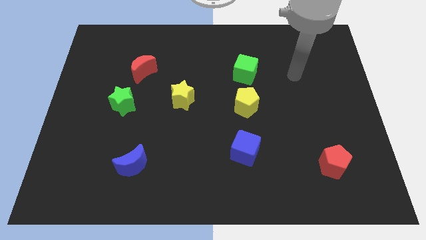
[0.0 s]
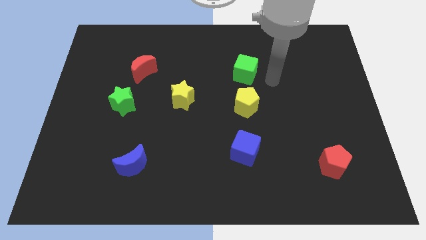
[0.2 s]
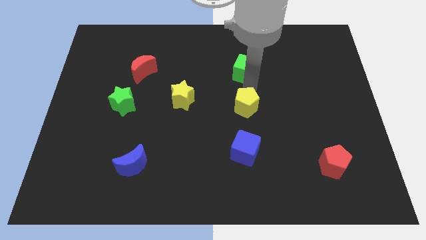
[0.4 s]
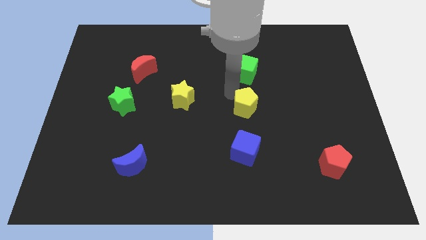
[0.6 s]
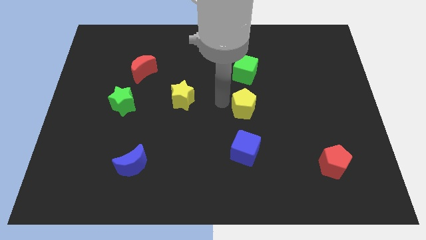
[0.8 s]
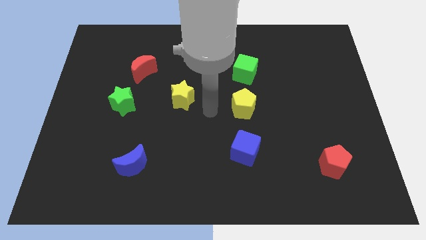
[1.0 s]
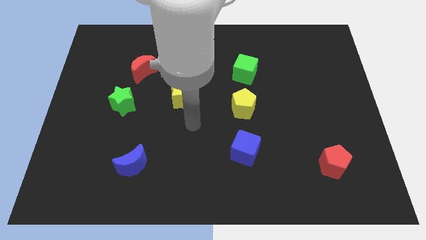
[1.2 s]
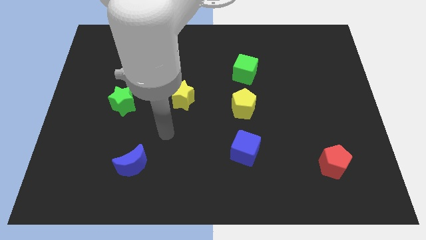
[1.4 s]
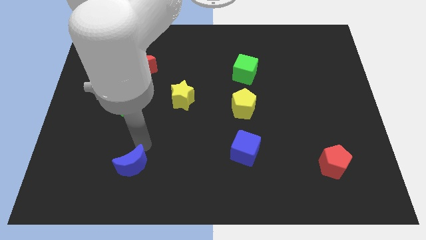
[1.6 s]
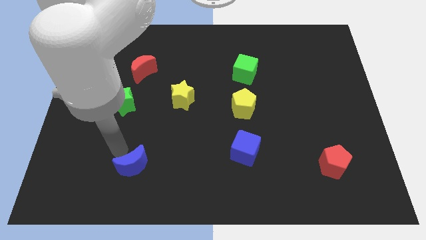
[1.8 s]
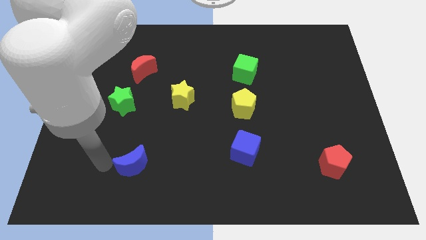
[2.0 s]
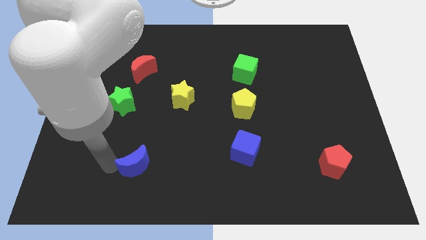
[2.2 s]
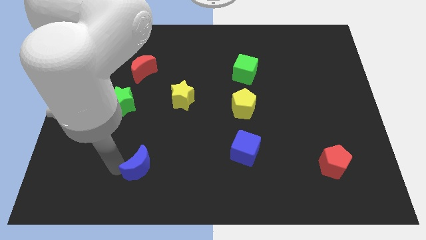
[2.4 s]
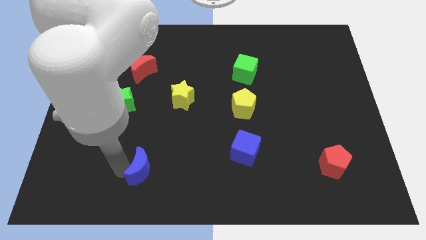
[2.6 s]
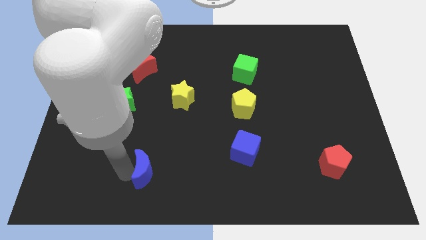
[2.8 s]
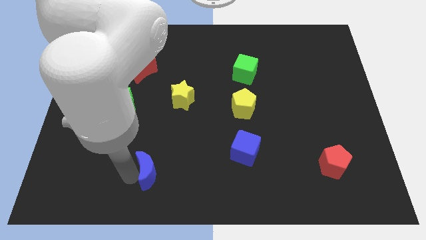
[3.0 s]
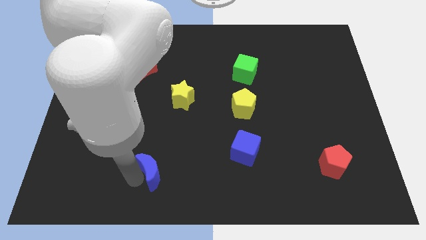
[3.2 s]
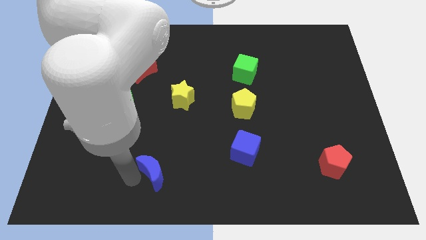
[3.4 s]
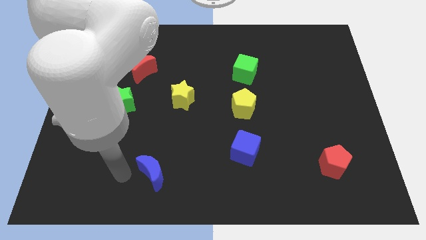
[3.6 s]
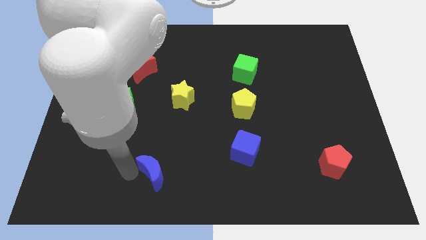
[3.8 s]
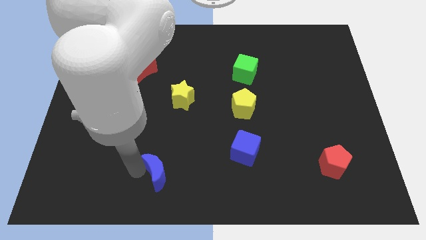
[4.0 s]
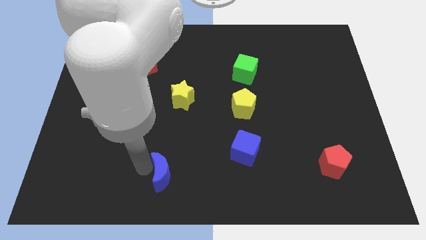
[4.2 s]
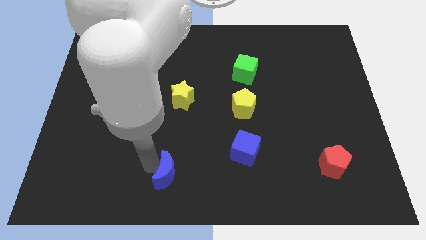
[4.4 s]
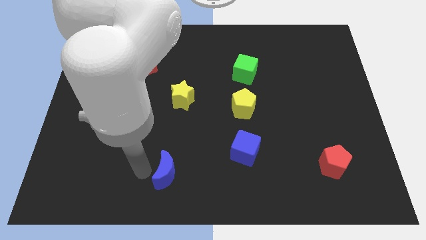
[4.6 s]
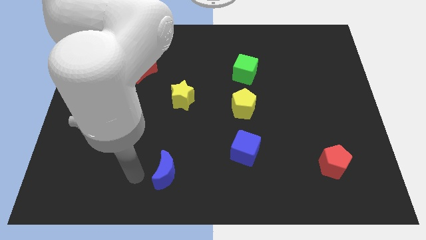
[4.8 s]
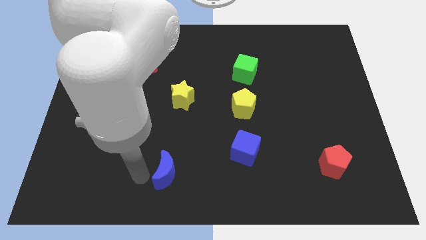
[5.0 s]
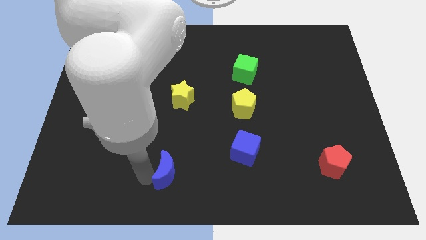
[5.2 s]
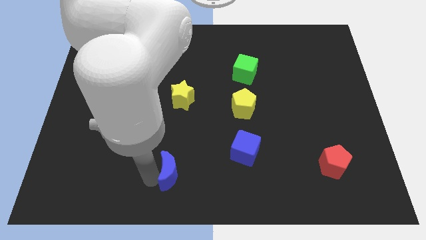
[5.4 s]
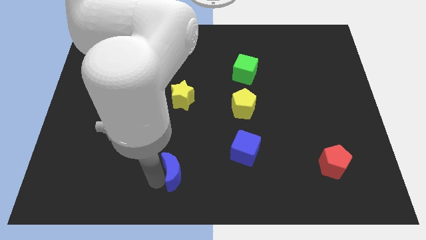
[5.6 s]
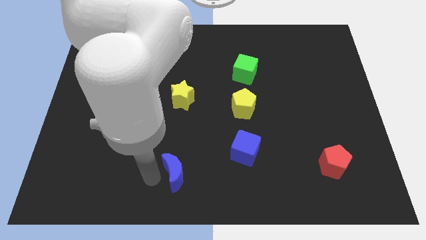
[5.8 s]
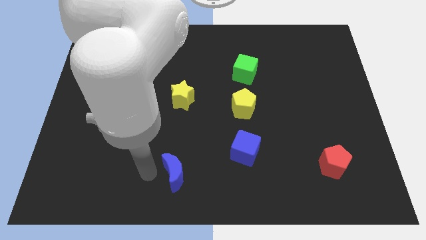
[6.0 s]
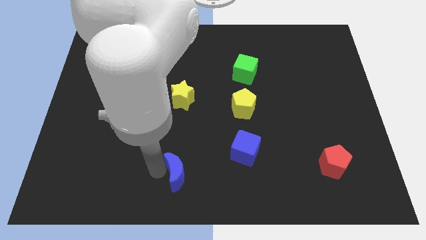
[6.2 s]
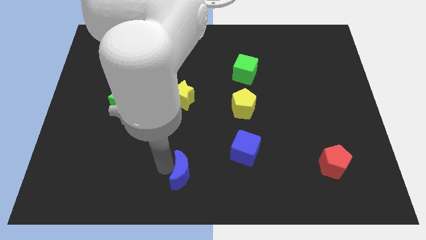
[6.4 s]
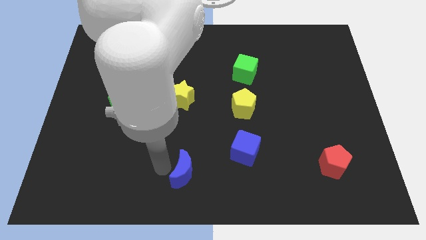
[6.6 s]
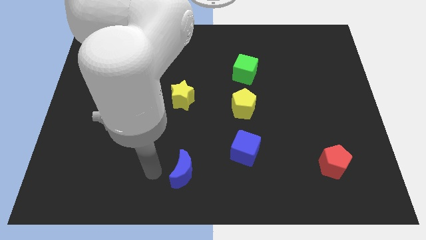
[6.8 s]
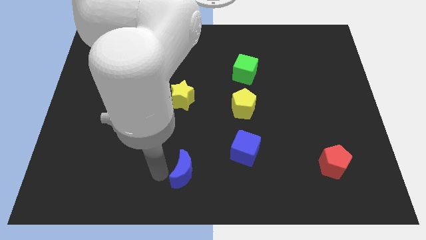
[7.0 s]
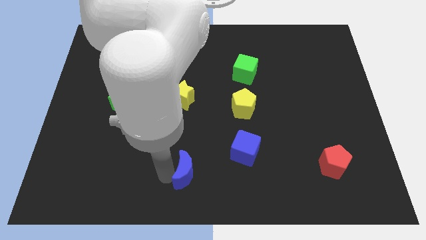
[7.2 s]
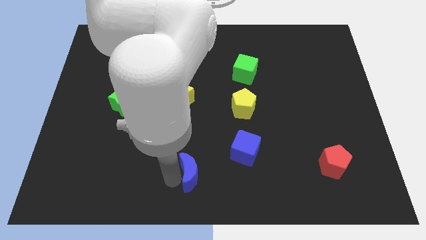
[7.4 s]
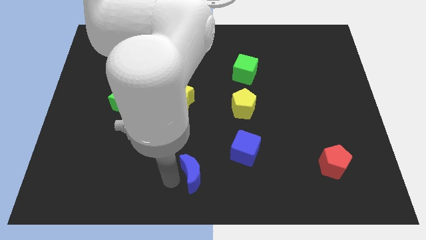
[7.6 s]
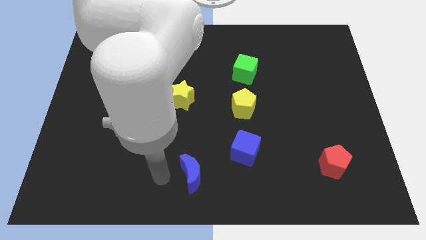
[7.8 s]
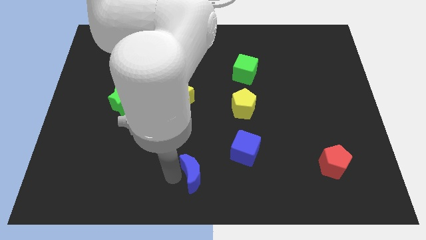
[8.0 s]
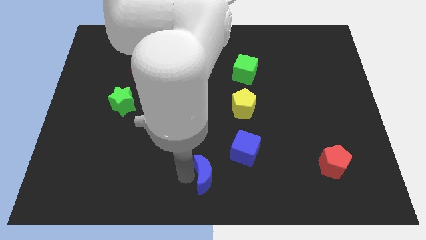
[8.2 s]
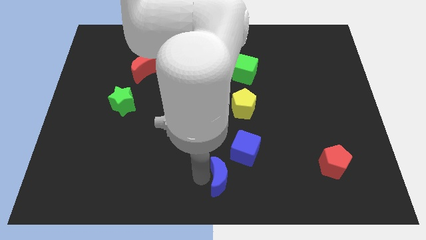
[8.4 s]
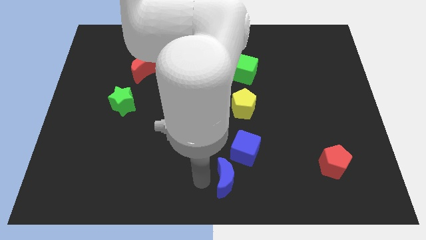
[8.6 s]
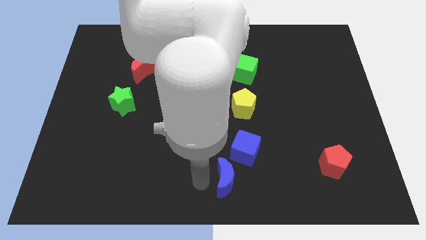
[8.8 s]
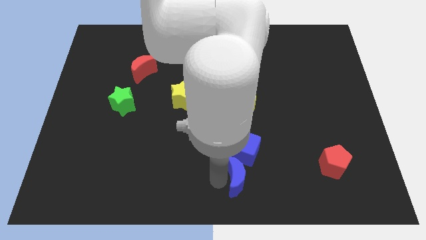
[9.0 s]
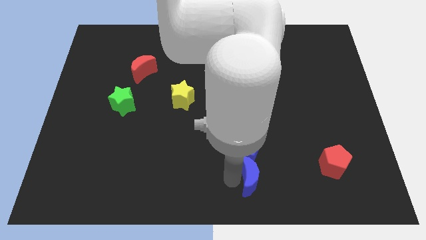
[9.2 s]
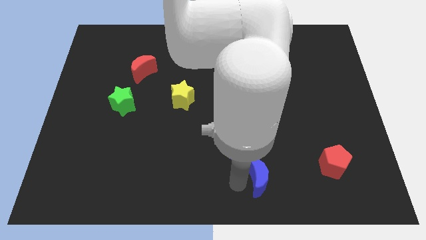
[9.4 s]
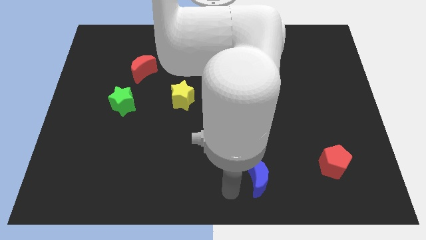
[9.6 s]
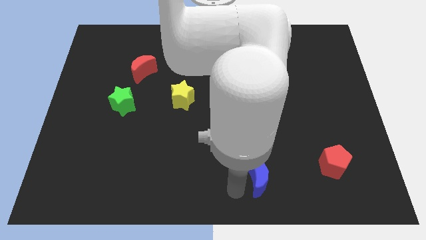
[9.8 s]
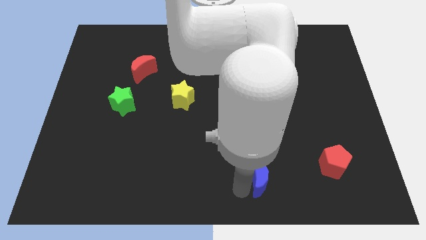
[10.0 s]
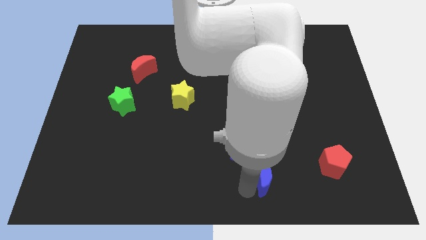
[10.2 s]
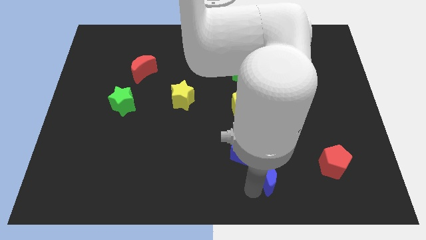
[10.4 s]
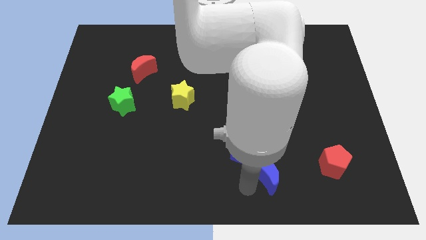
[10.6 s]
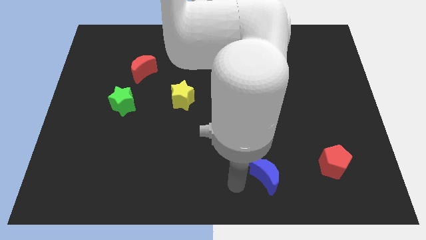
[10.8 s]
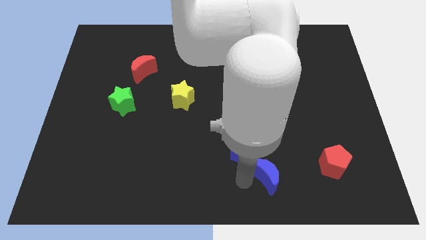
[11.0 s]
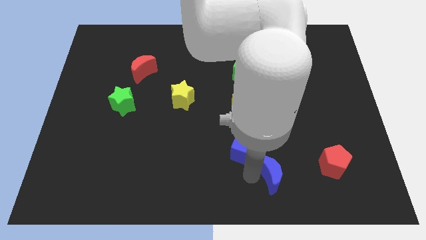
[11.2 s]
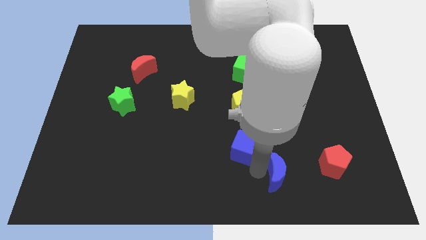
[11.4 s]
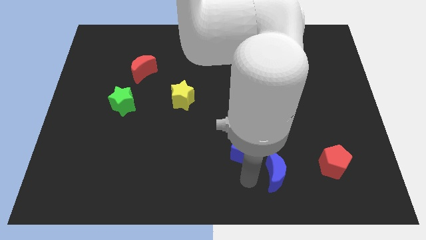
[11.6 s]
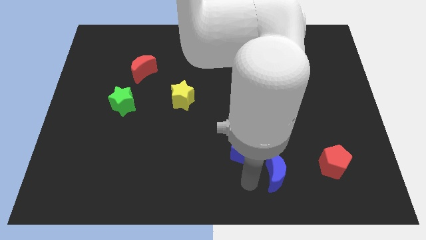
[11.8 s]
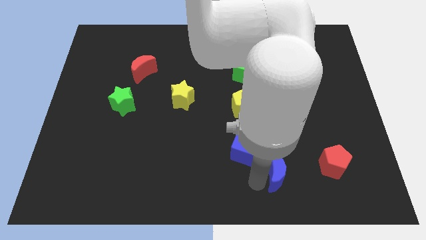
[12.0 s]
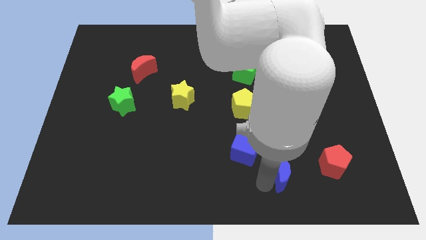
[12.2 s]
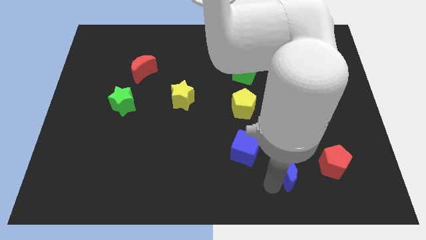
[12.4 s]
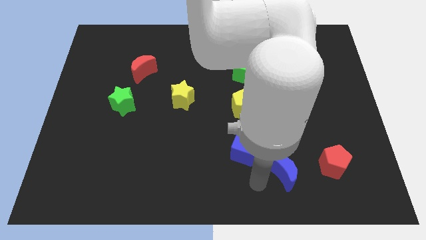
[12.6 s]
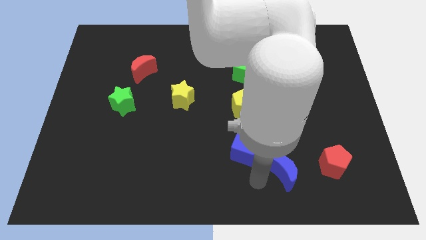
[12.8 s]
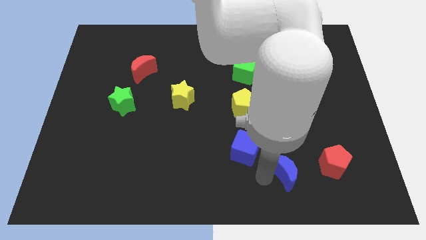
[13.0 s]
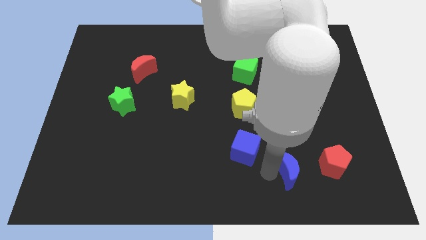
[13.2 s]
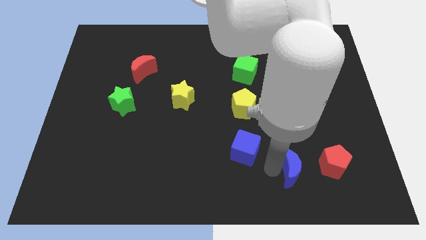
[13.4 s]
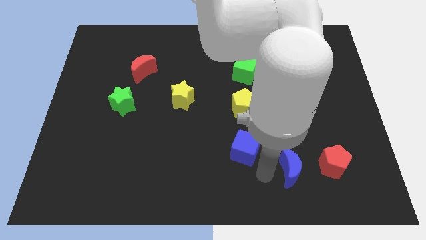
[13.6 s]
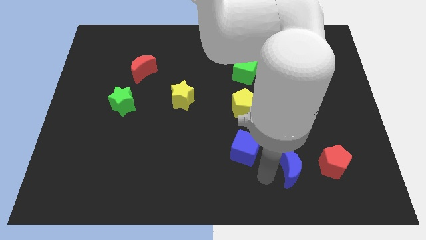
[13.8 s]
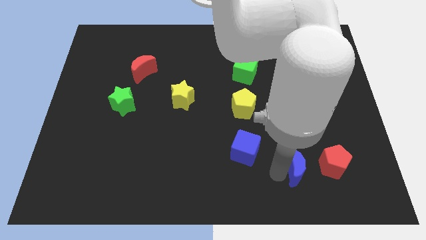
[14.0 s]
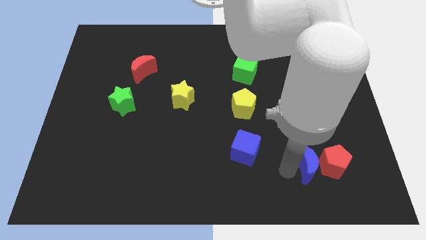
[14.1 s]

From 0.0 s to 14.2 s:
push the blue moon towards the red pentagon

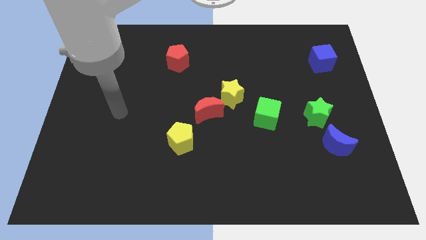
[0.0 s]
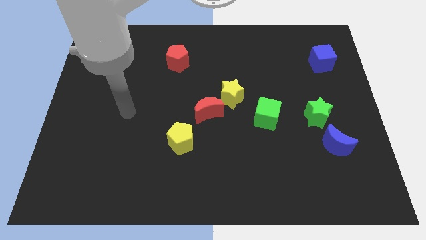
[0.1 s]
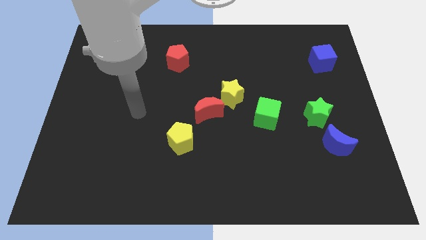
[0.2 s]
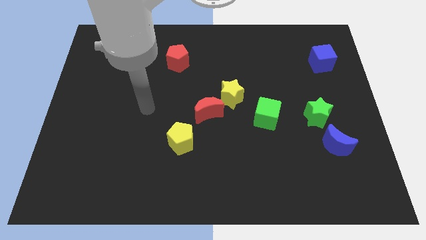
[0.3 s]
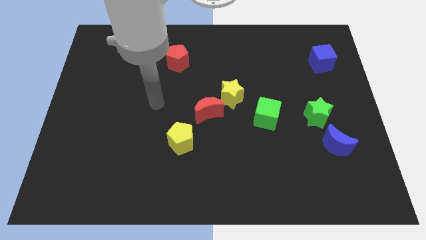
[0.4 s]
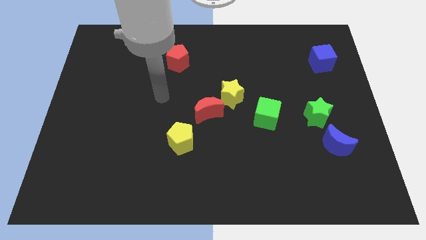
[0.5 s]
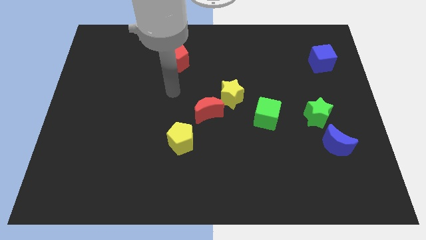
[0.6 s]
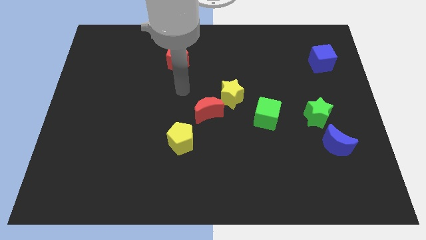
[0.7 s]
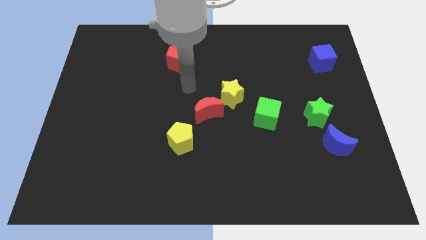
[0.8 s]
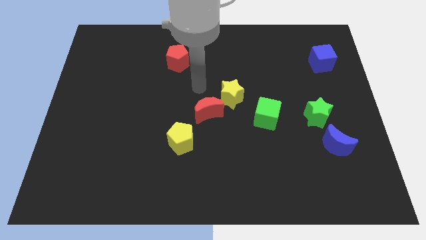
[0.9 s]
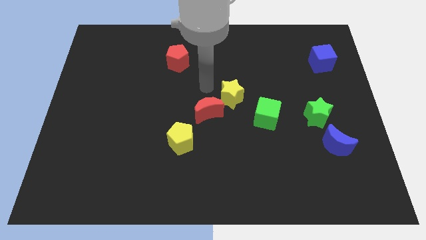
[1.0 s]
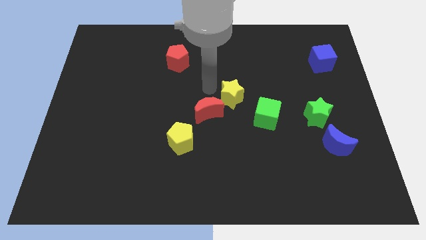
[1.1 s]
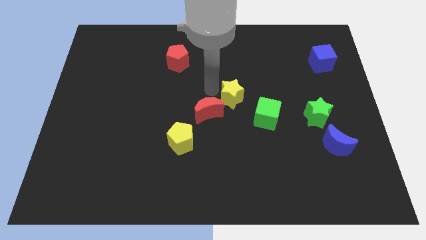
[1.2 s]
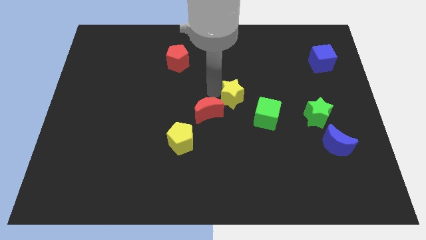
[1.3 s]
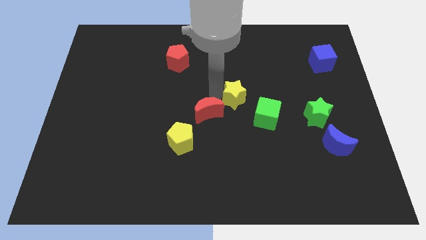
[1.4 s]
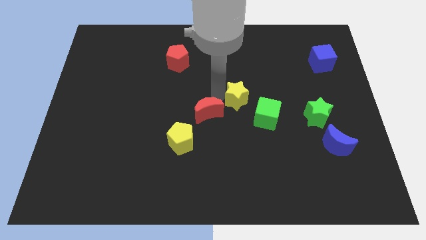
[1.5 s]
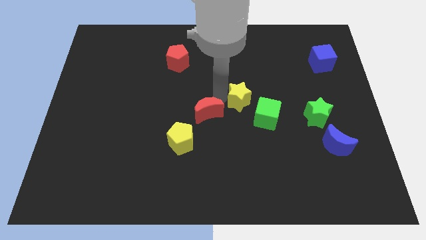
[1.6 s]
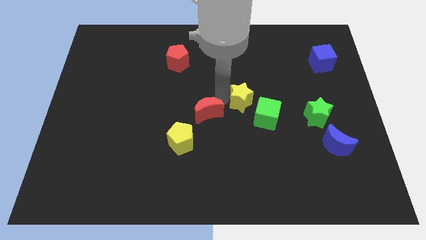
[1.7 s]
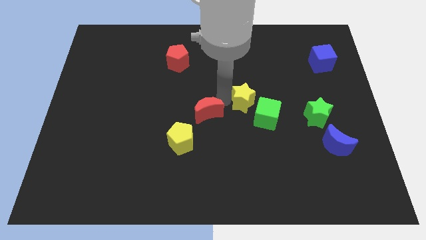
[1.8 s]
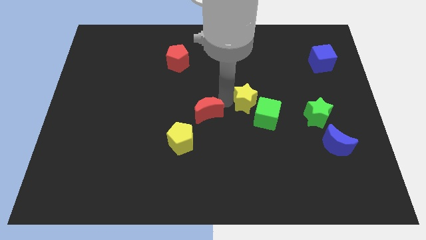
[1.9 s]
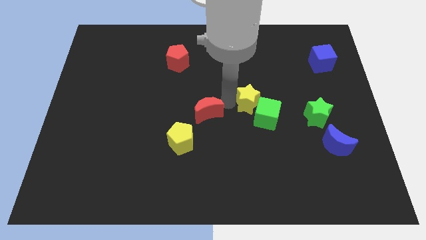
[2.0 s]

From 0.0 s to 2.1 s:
move the yellow star close to the green cube
